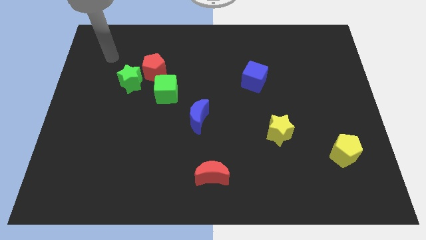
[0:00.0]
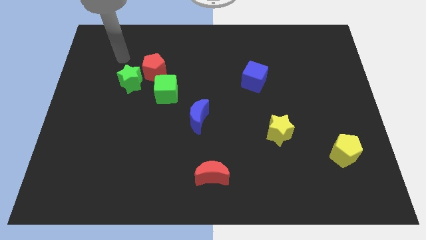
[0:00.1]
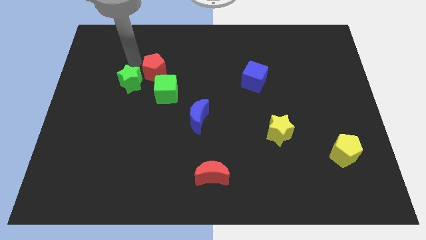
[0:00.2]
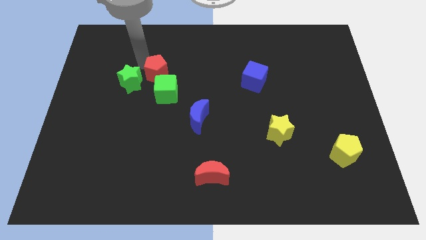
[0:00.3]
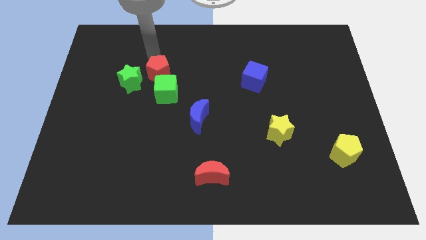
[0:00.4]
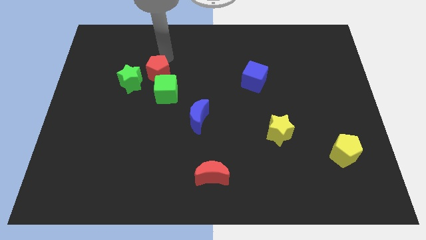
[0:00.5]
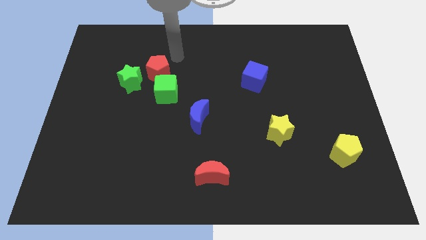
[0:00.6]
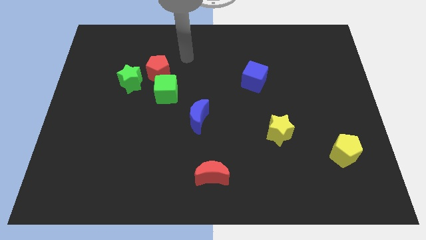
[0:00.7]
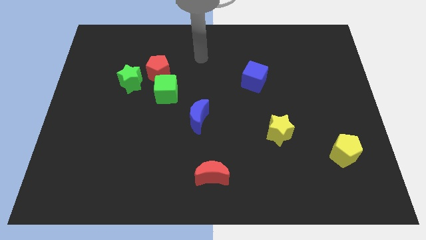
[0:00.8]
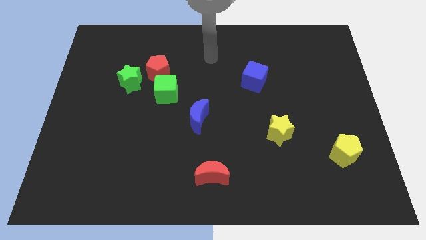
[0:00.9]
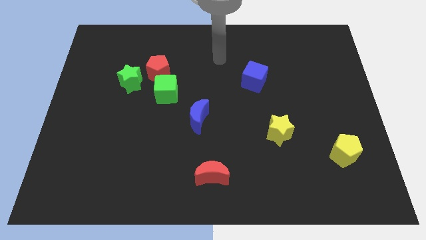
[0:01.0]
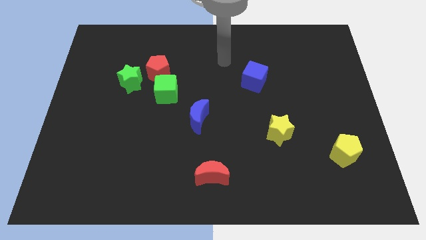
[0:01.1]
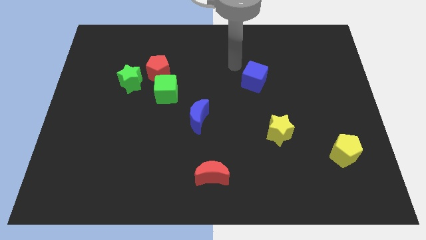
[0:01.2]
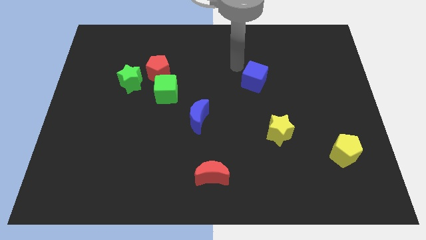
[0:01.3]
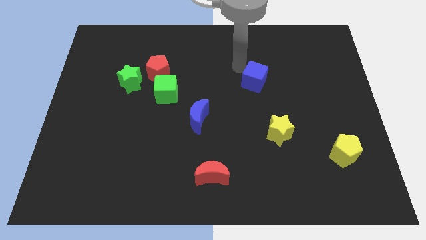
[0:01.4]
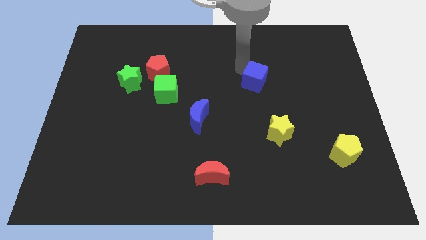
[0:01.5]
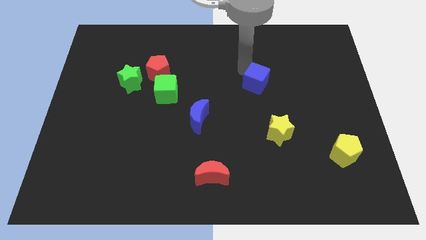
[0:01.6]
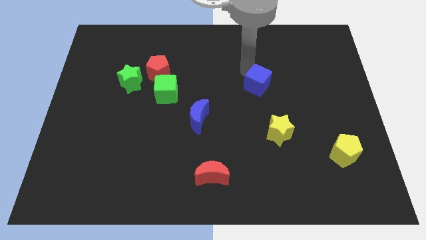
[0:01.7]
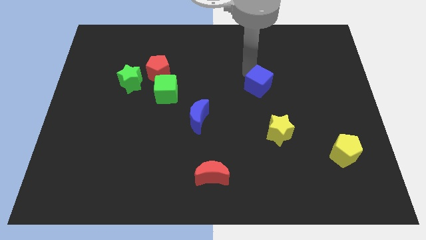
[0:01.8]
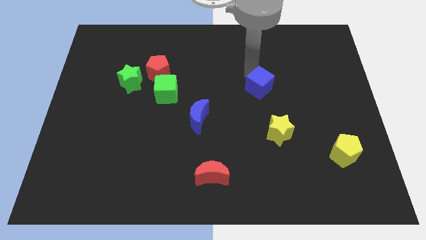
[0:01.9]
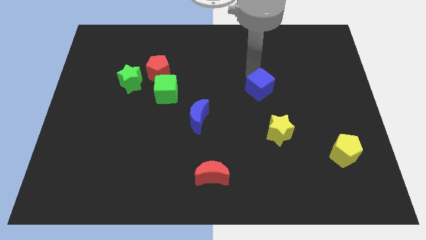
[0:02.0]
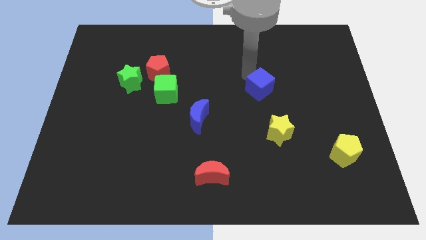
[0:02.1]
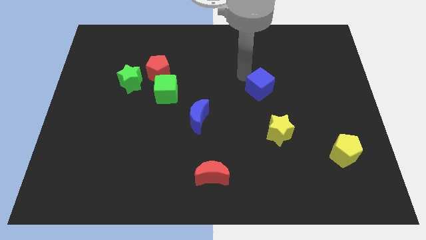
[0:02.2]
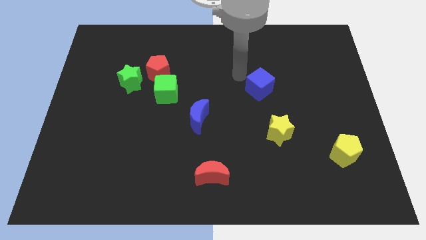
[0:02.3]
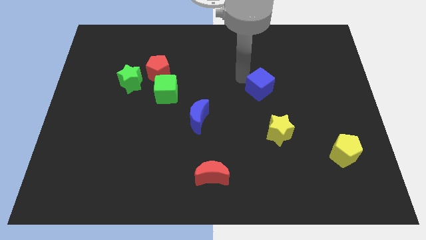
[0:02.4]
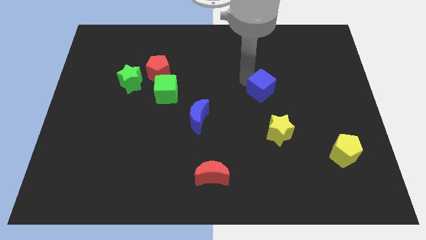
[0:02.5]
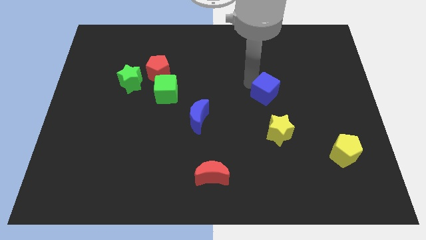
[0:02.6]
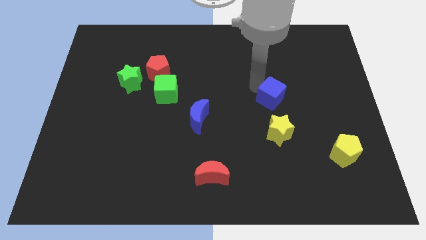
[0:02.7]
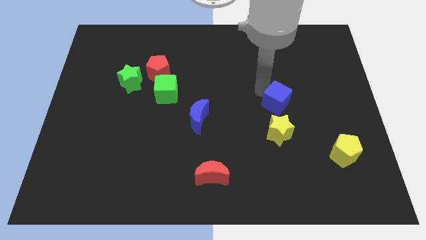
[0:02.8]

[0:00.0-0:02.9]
move the blue cube somewhat downwards and to the right

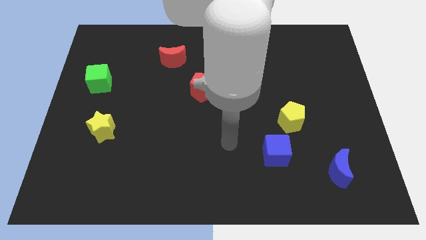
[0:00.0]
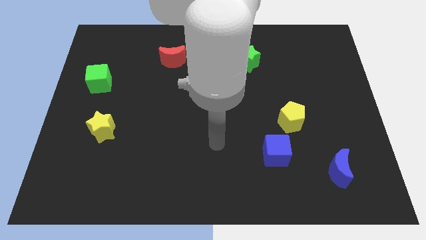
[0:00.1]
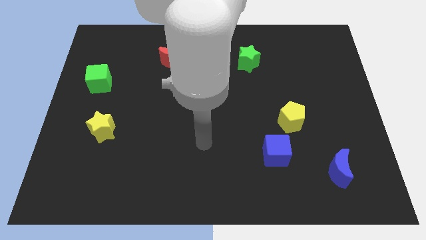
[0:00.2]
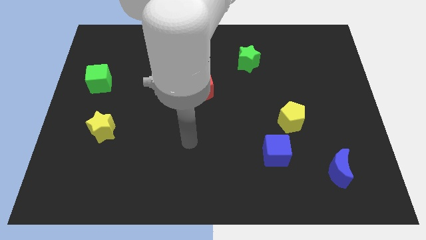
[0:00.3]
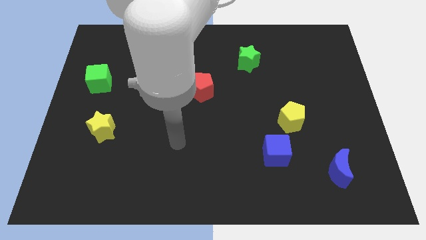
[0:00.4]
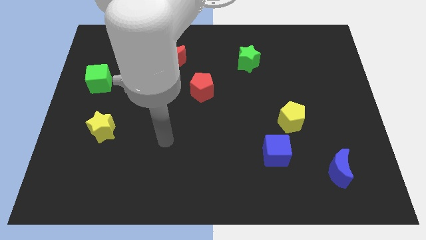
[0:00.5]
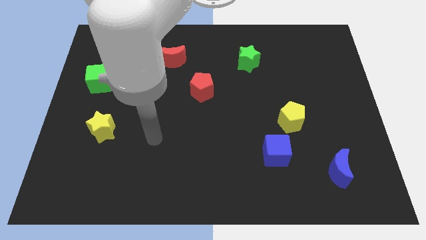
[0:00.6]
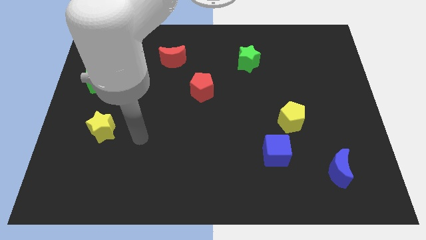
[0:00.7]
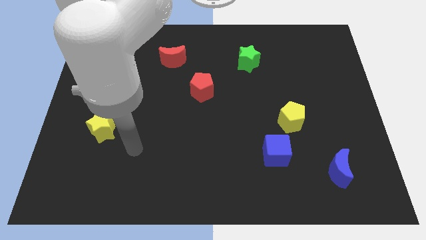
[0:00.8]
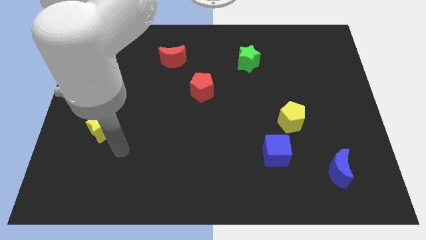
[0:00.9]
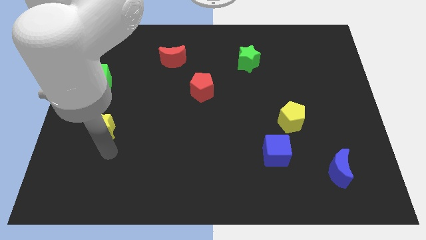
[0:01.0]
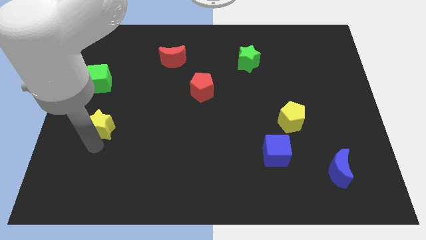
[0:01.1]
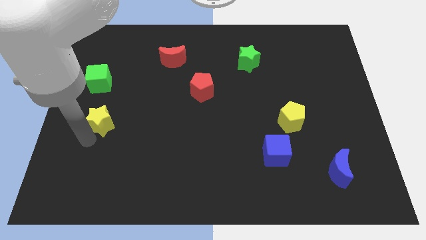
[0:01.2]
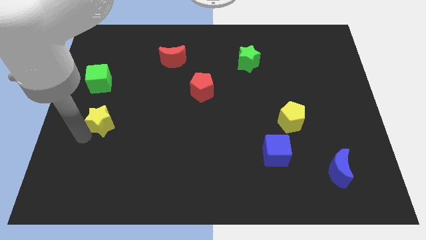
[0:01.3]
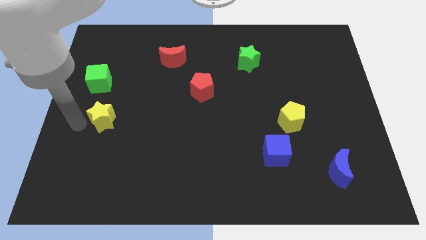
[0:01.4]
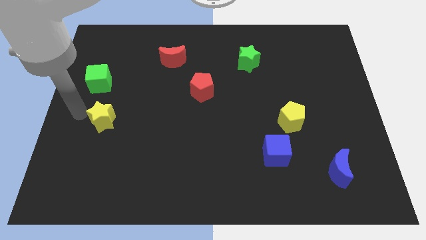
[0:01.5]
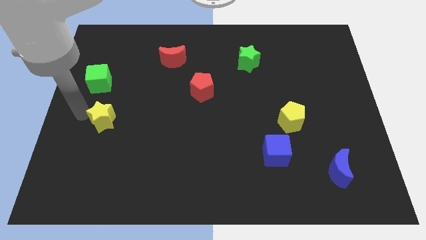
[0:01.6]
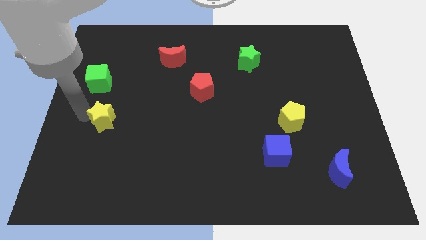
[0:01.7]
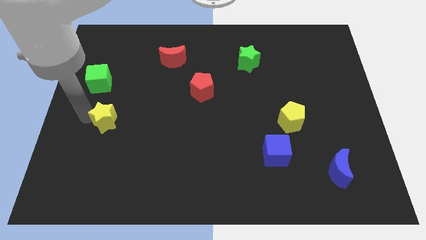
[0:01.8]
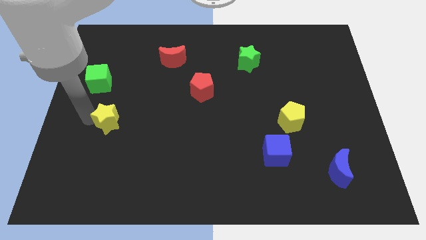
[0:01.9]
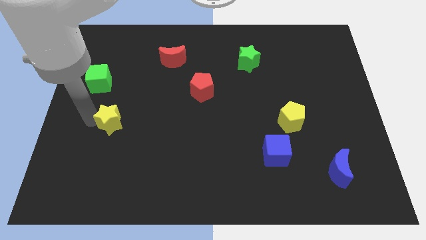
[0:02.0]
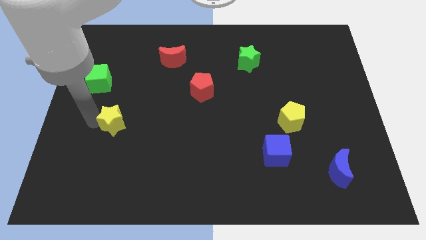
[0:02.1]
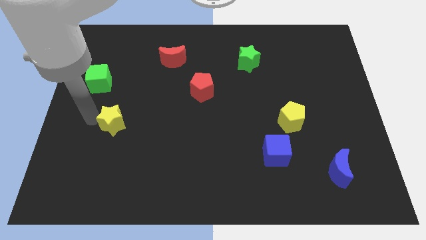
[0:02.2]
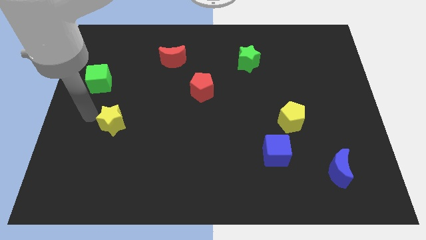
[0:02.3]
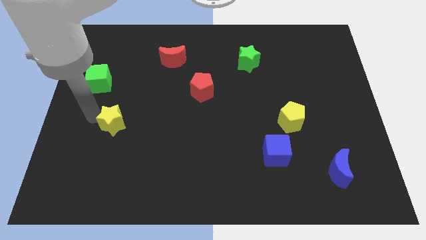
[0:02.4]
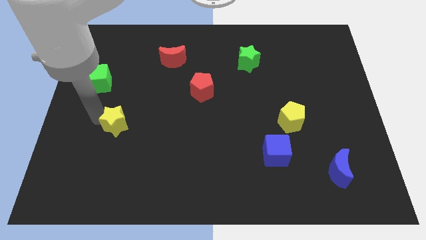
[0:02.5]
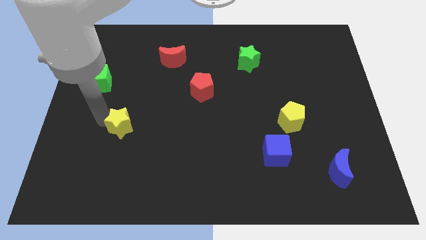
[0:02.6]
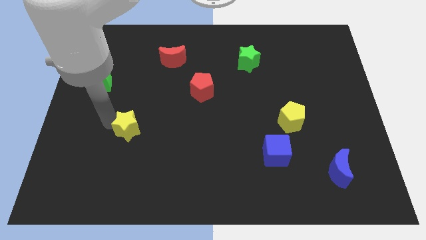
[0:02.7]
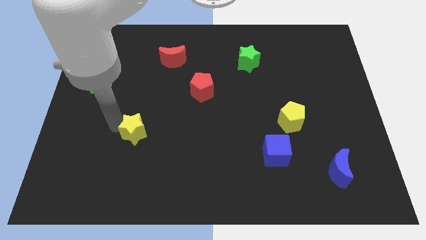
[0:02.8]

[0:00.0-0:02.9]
slide the yellow star a little to the right

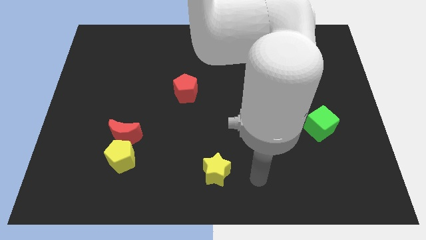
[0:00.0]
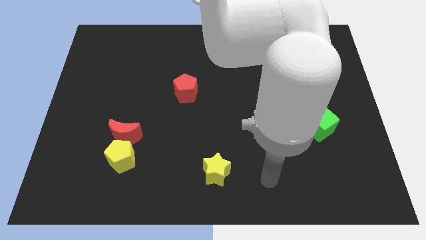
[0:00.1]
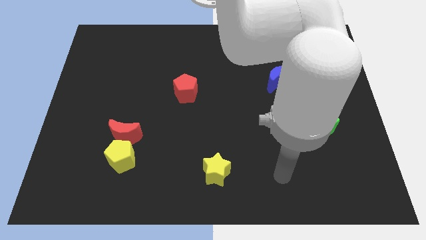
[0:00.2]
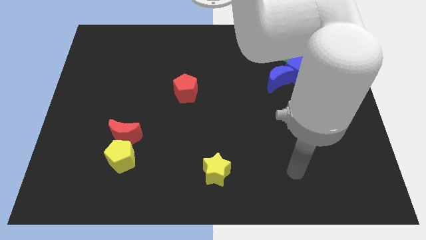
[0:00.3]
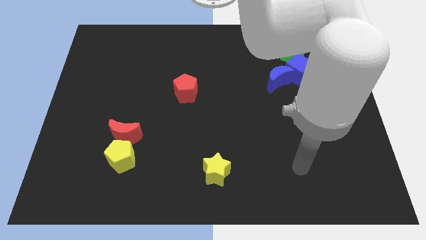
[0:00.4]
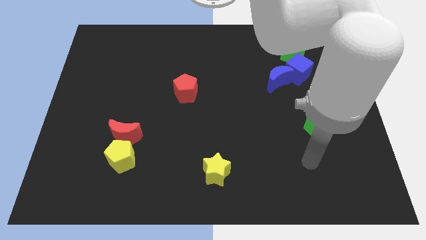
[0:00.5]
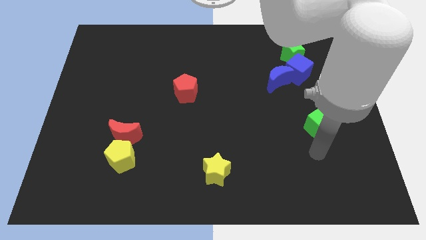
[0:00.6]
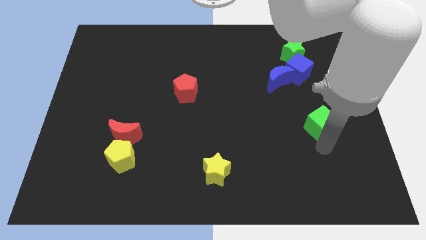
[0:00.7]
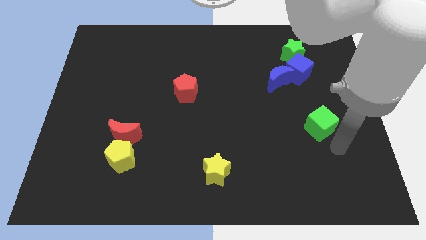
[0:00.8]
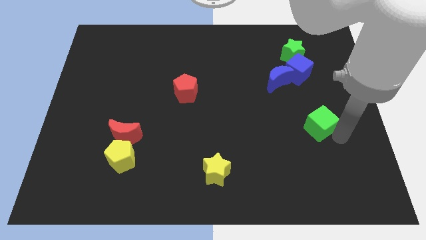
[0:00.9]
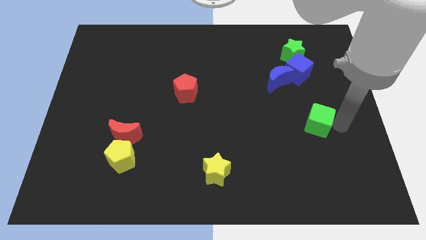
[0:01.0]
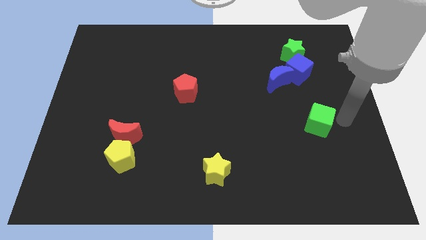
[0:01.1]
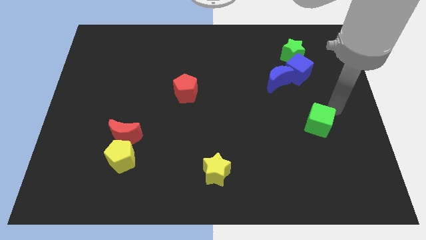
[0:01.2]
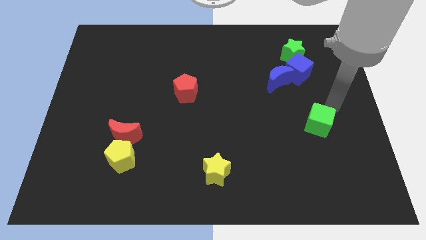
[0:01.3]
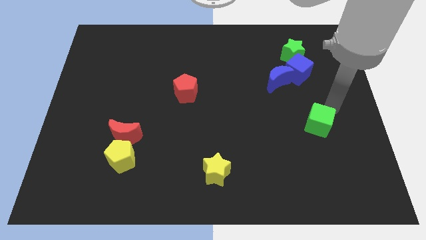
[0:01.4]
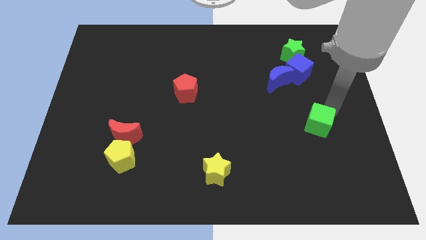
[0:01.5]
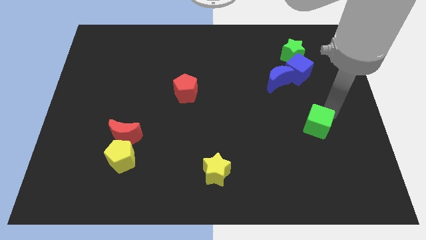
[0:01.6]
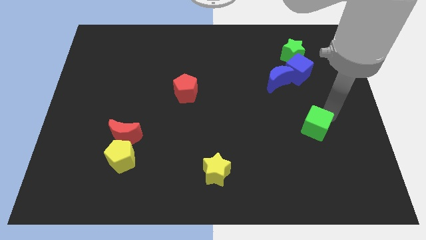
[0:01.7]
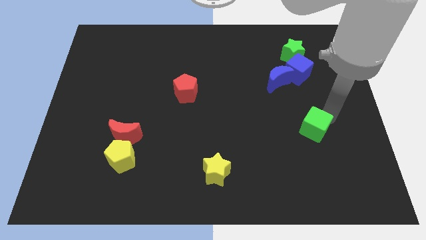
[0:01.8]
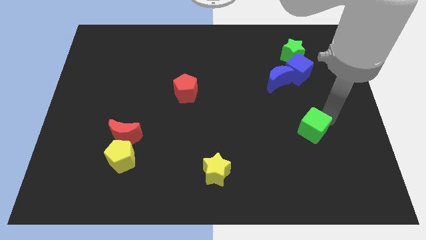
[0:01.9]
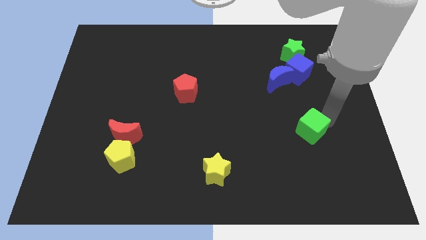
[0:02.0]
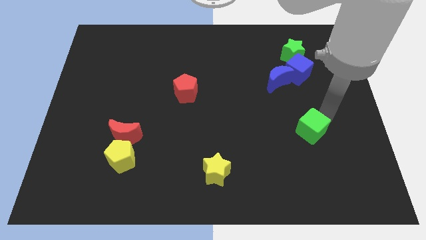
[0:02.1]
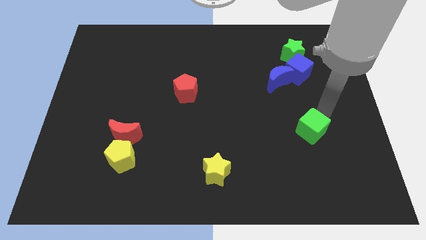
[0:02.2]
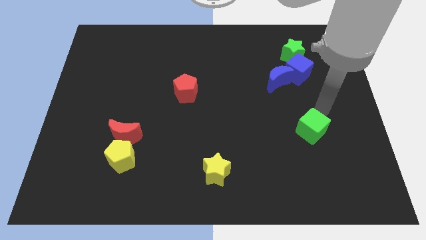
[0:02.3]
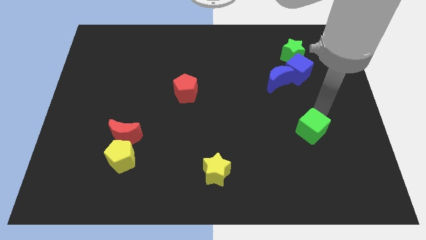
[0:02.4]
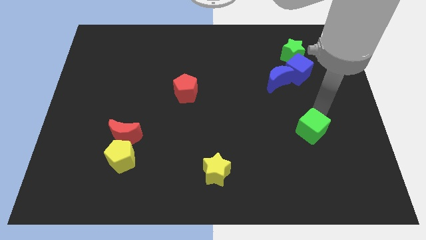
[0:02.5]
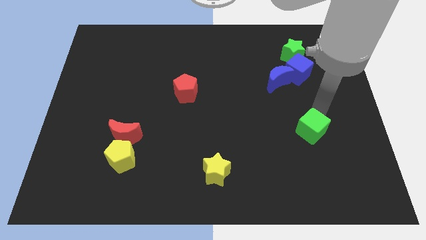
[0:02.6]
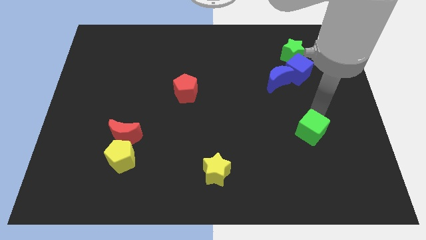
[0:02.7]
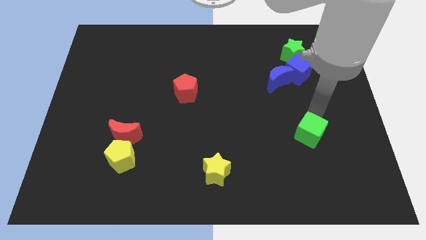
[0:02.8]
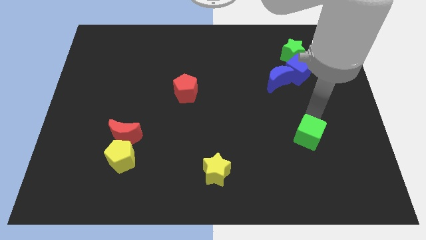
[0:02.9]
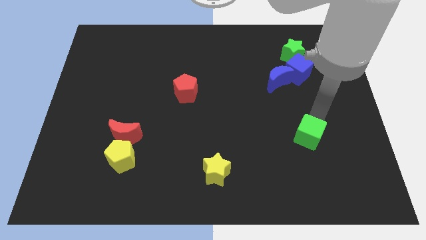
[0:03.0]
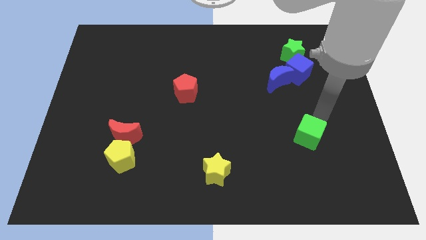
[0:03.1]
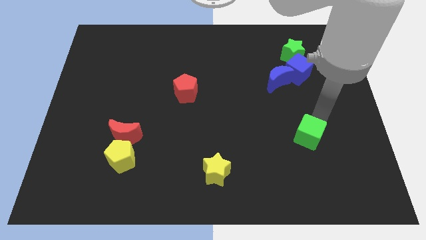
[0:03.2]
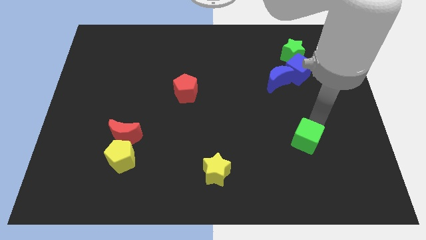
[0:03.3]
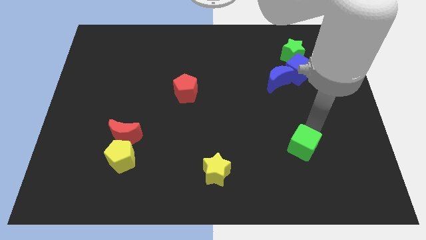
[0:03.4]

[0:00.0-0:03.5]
slide the green cube downwards and to the left diagonally slightly
